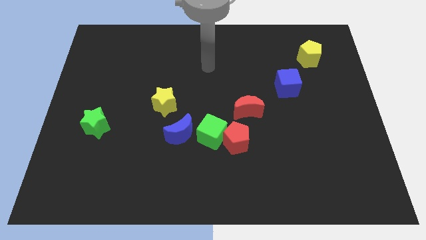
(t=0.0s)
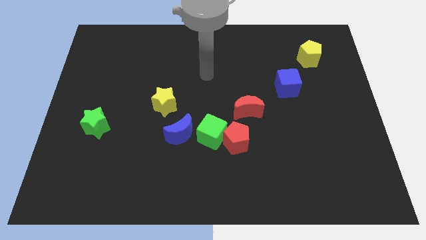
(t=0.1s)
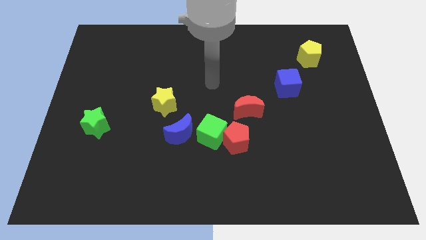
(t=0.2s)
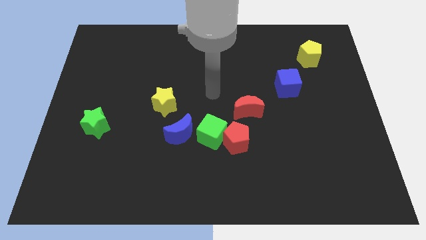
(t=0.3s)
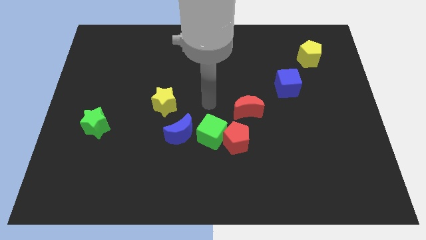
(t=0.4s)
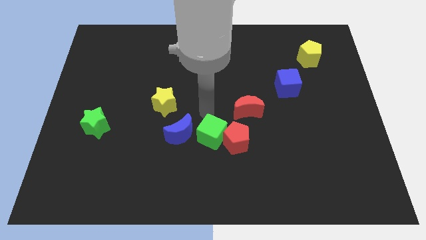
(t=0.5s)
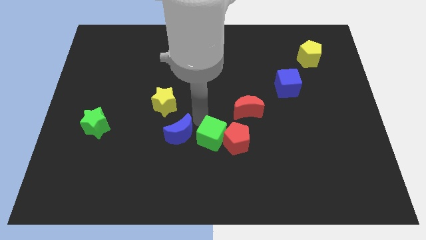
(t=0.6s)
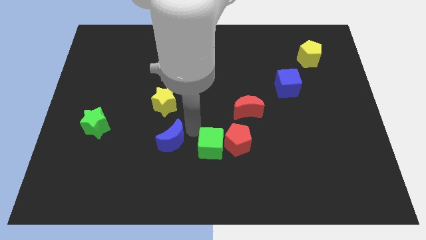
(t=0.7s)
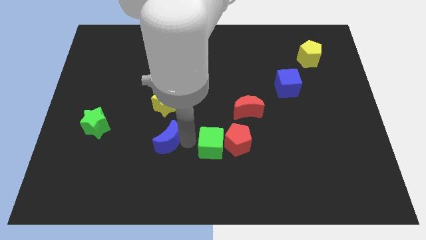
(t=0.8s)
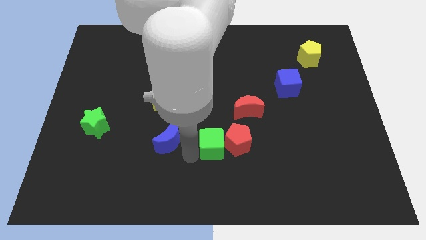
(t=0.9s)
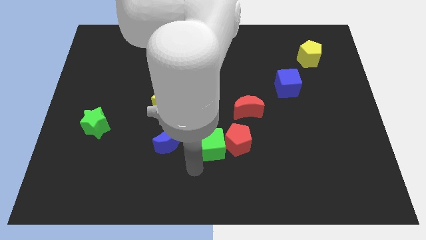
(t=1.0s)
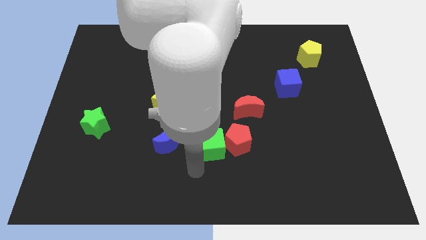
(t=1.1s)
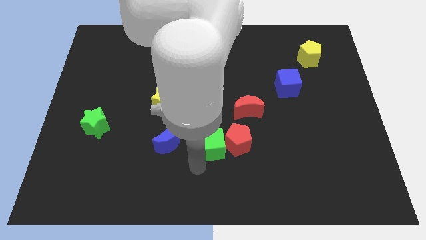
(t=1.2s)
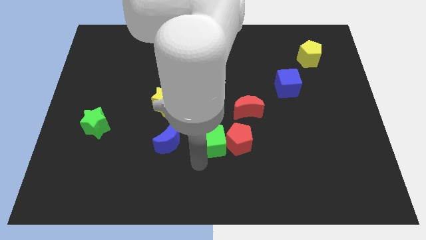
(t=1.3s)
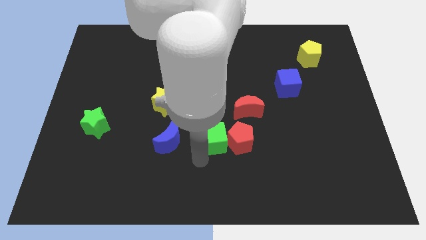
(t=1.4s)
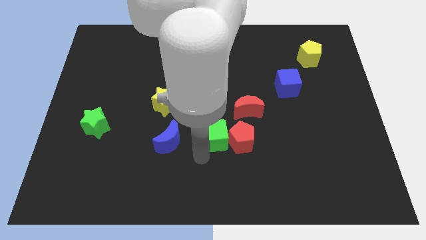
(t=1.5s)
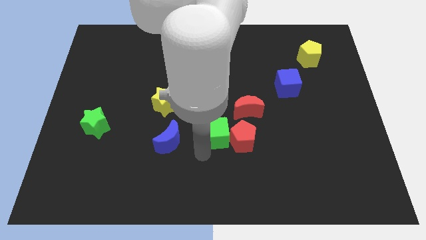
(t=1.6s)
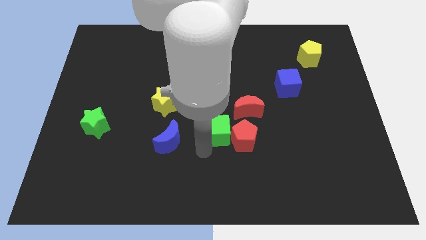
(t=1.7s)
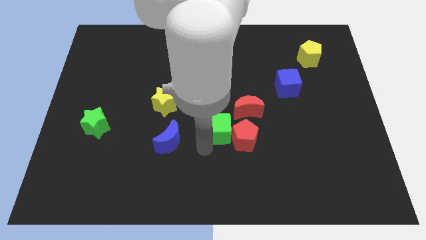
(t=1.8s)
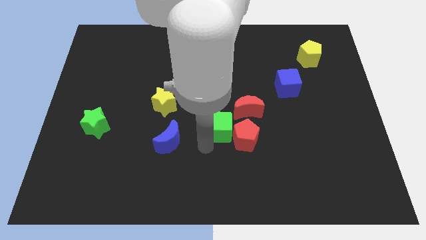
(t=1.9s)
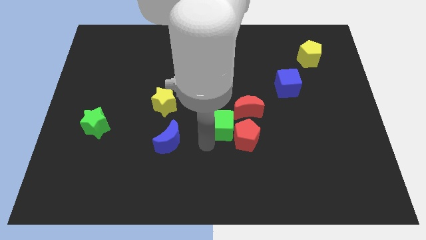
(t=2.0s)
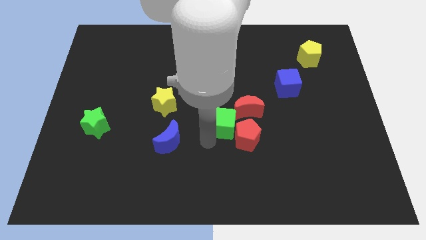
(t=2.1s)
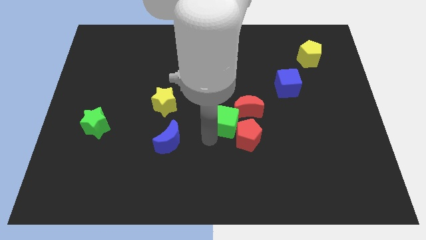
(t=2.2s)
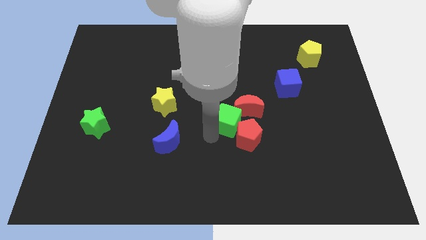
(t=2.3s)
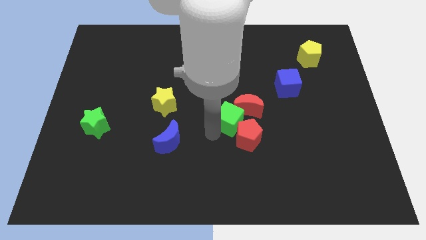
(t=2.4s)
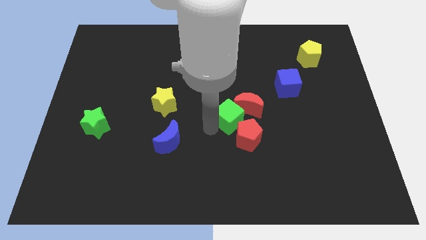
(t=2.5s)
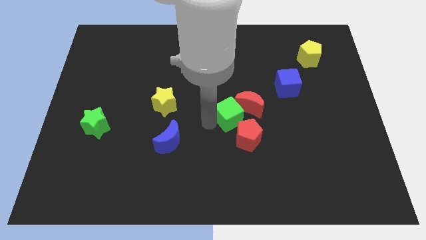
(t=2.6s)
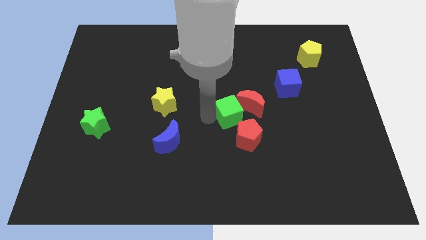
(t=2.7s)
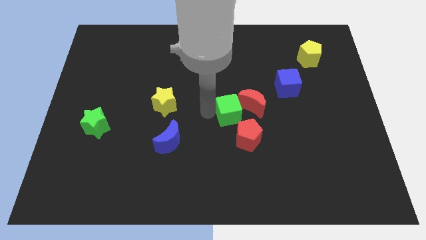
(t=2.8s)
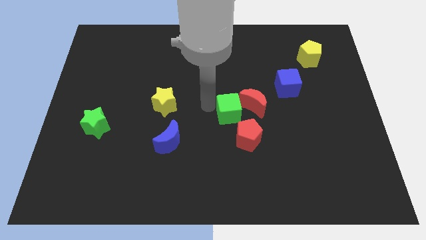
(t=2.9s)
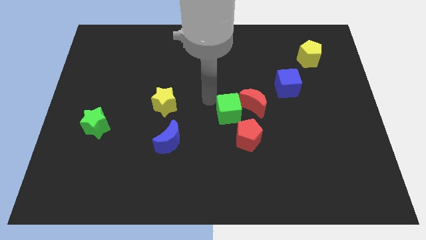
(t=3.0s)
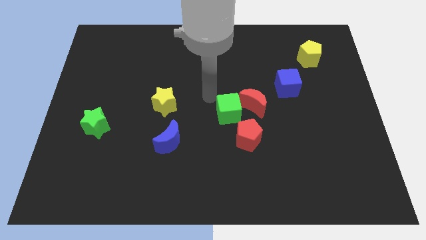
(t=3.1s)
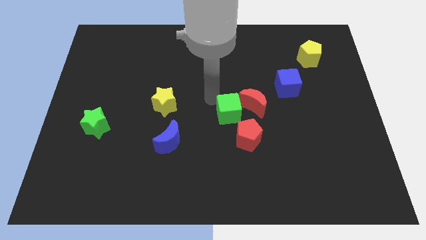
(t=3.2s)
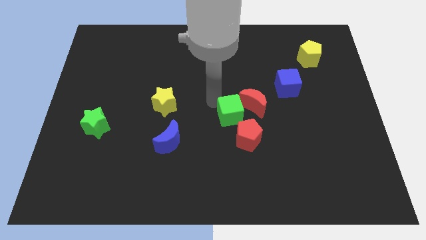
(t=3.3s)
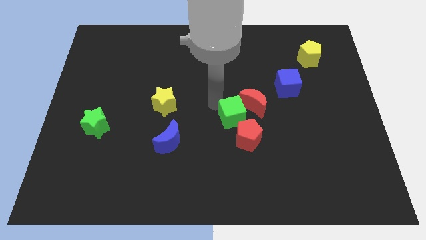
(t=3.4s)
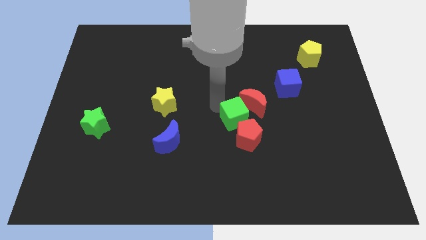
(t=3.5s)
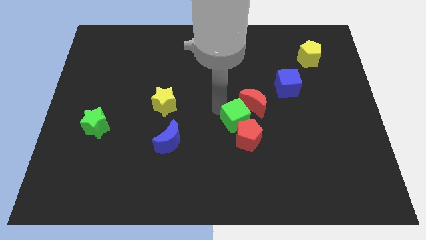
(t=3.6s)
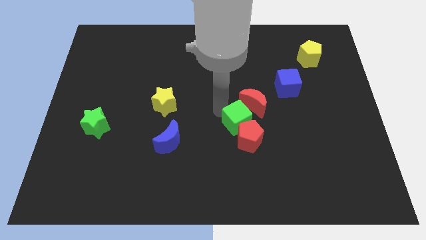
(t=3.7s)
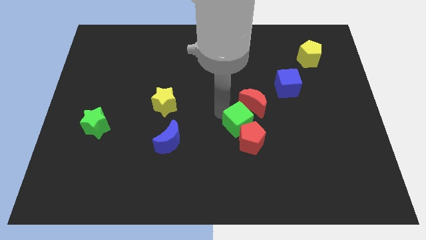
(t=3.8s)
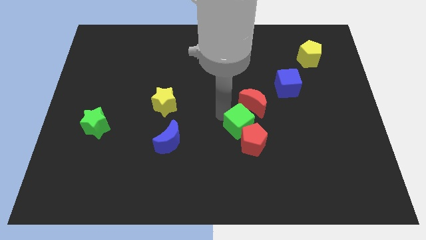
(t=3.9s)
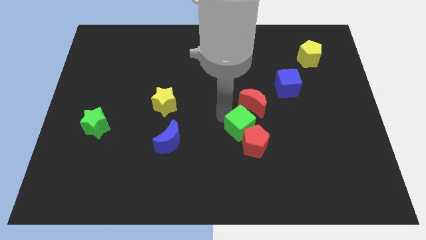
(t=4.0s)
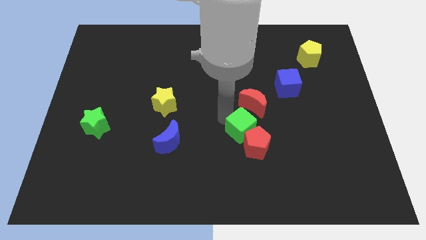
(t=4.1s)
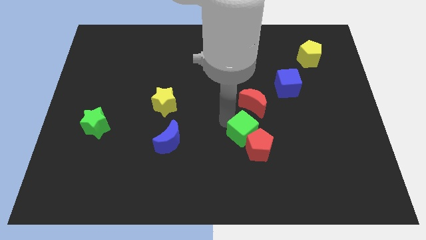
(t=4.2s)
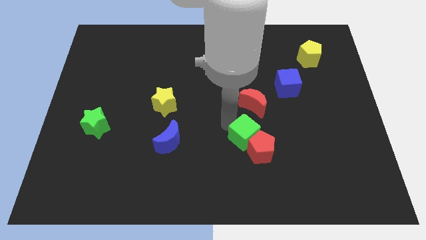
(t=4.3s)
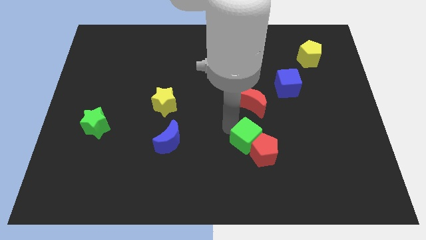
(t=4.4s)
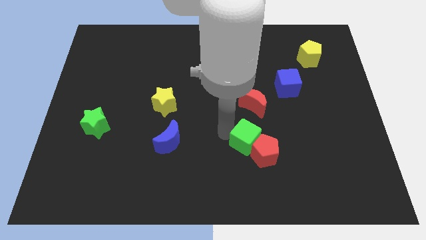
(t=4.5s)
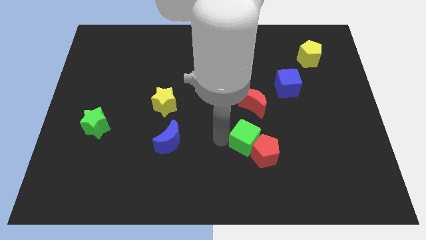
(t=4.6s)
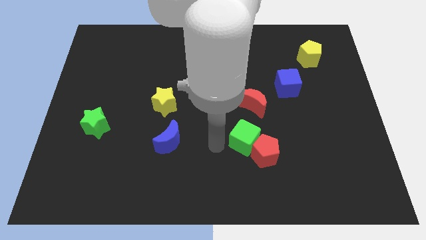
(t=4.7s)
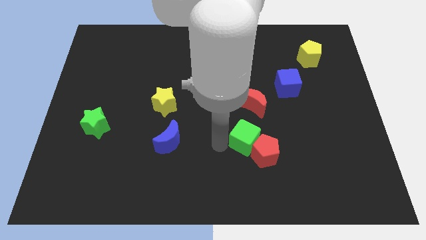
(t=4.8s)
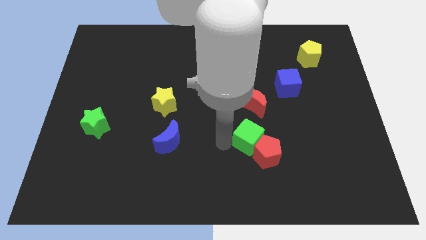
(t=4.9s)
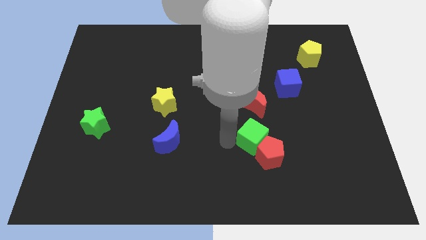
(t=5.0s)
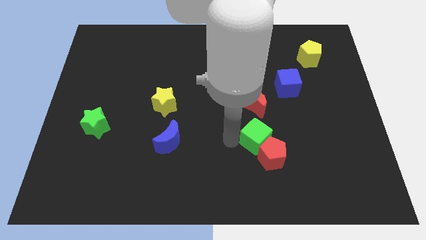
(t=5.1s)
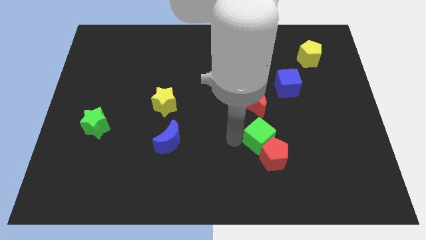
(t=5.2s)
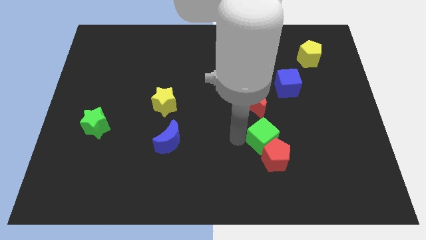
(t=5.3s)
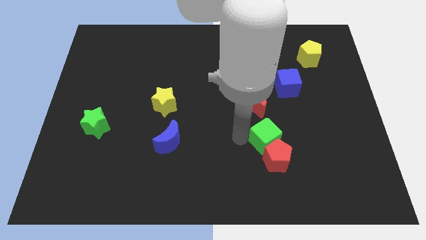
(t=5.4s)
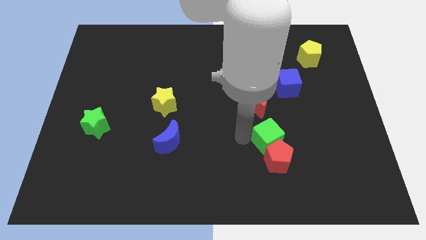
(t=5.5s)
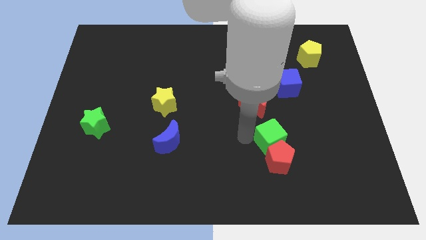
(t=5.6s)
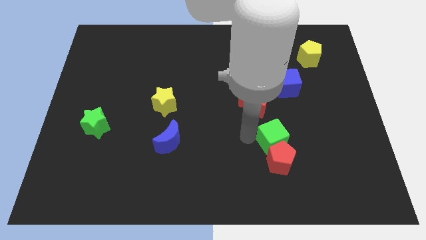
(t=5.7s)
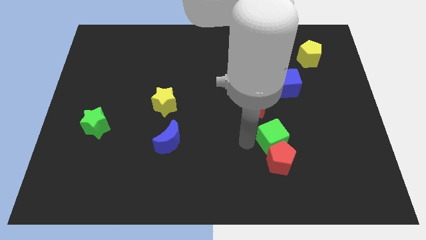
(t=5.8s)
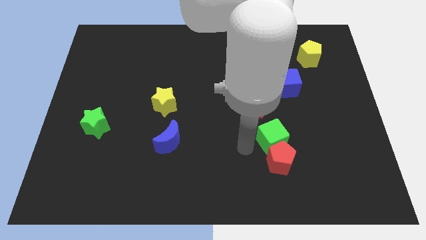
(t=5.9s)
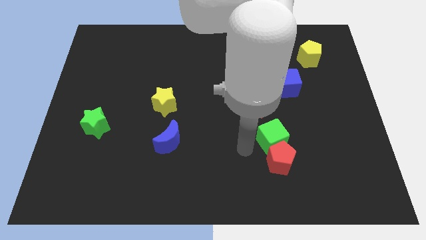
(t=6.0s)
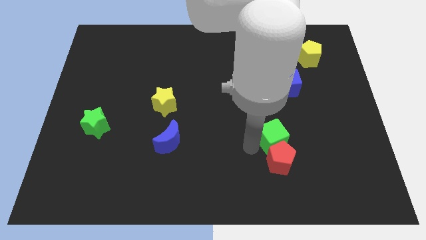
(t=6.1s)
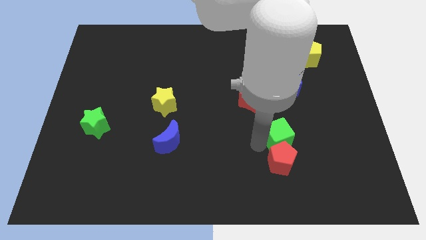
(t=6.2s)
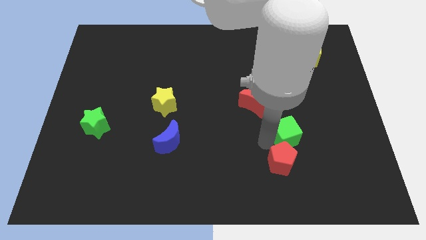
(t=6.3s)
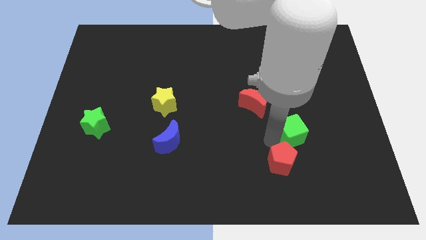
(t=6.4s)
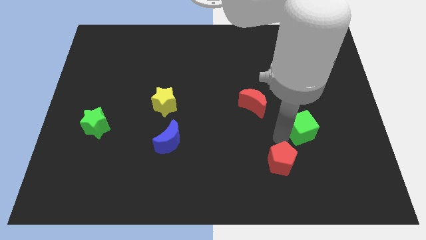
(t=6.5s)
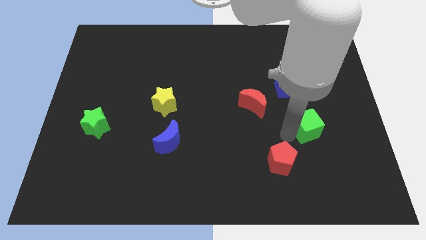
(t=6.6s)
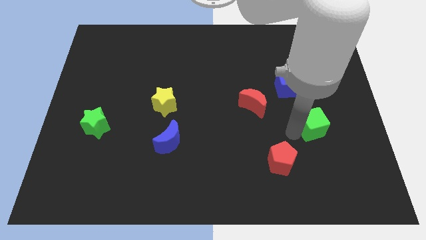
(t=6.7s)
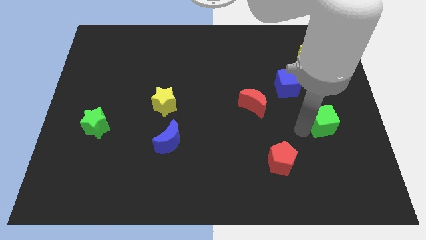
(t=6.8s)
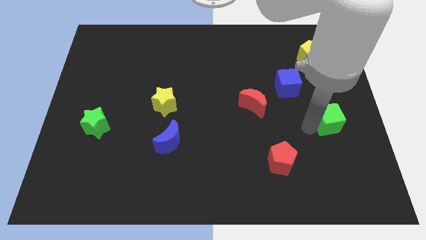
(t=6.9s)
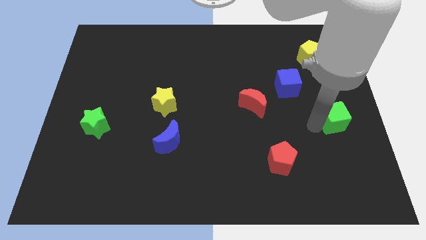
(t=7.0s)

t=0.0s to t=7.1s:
slide the green cube to the right side of the board
